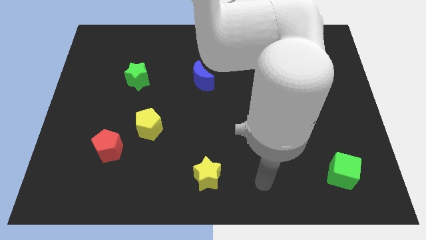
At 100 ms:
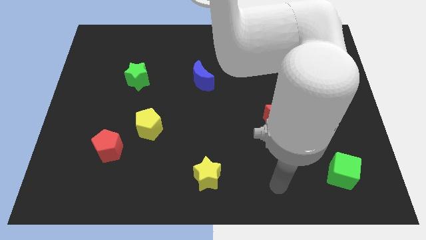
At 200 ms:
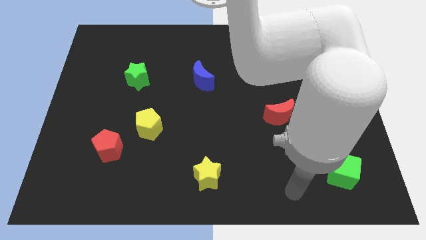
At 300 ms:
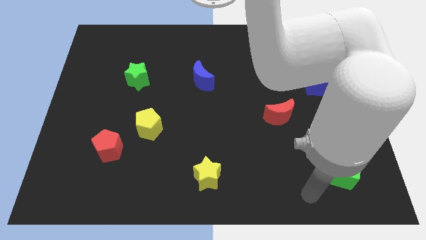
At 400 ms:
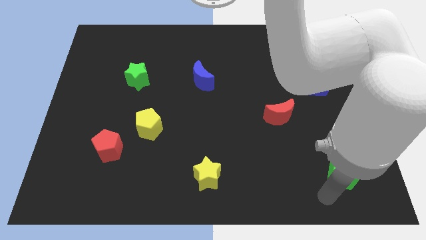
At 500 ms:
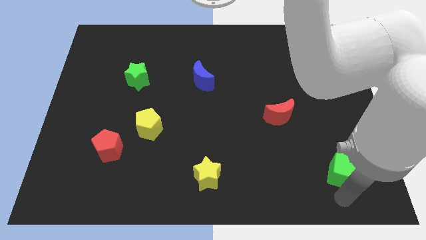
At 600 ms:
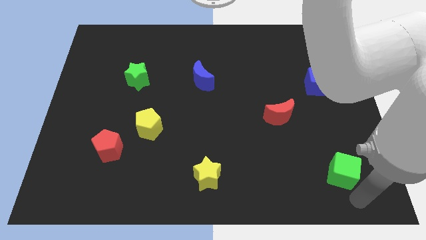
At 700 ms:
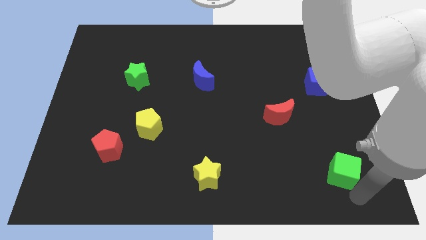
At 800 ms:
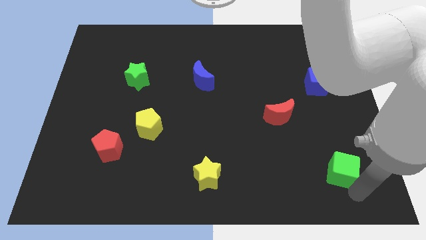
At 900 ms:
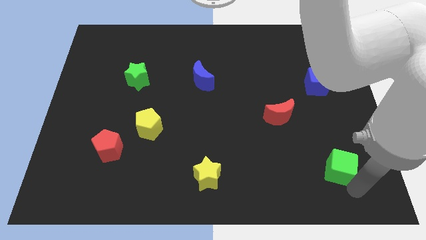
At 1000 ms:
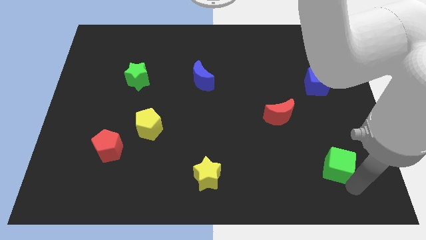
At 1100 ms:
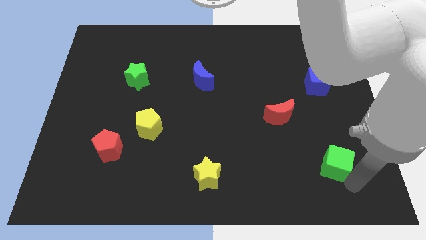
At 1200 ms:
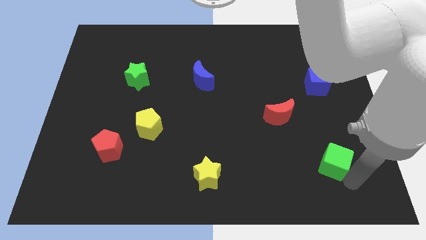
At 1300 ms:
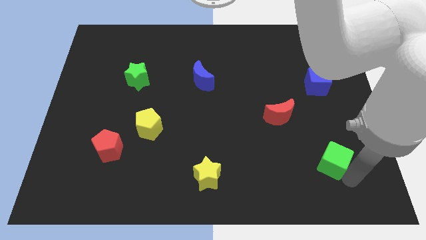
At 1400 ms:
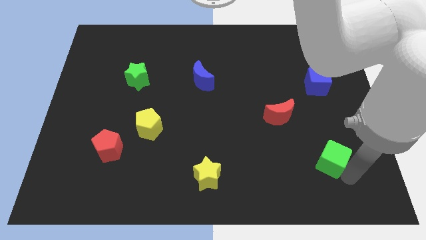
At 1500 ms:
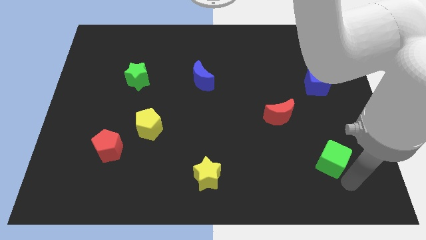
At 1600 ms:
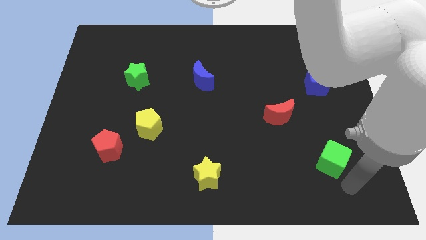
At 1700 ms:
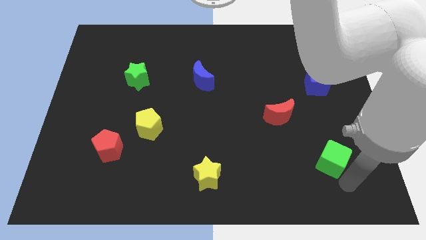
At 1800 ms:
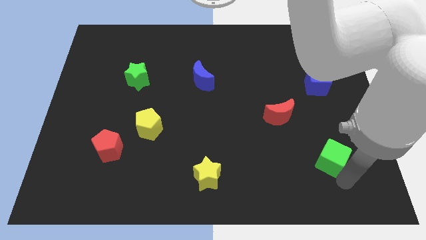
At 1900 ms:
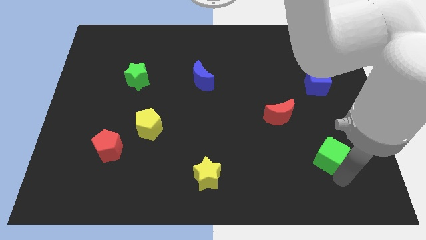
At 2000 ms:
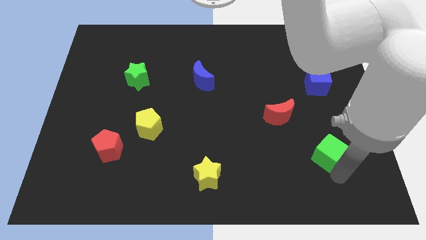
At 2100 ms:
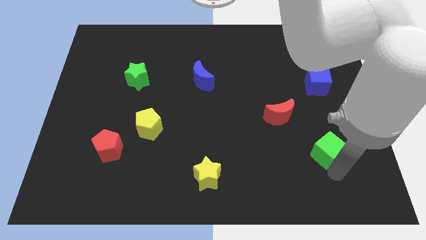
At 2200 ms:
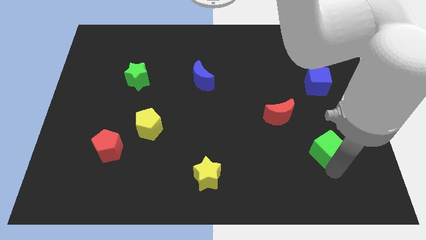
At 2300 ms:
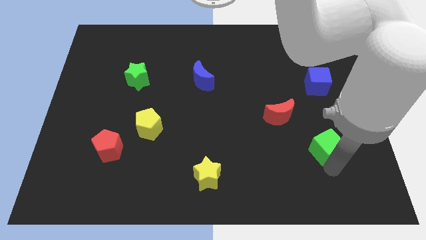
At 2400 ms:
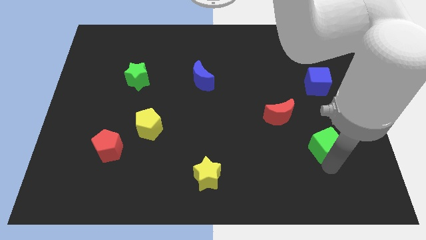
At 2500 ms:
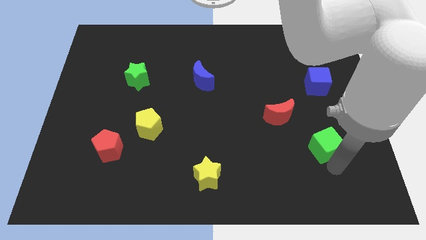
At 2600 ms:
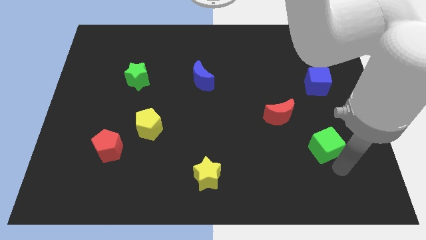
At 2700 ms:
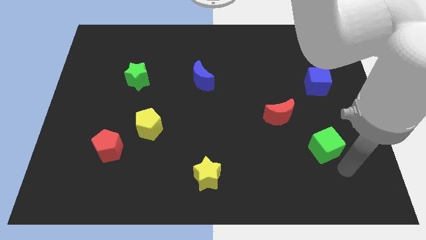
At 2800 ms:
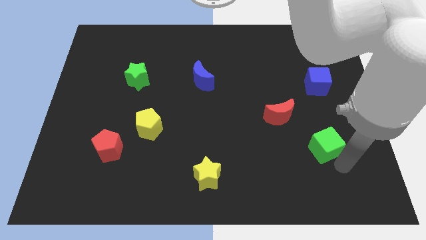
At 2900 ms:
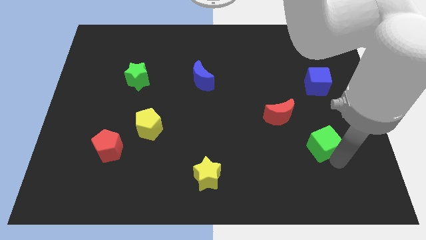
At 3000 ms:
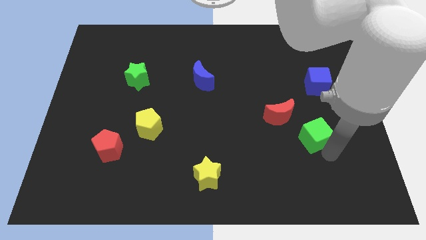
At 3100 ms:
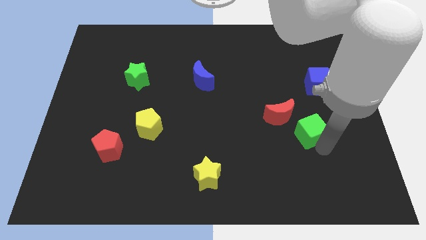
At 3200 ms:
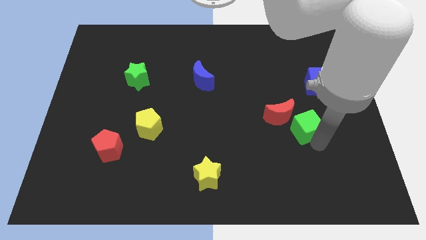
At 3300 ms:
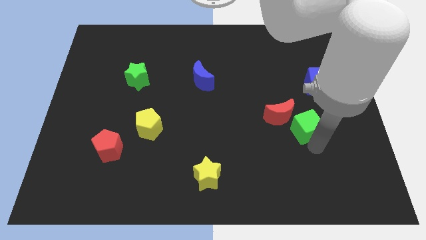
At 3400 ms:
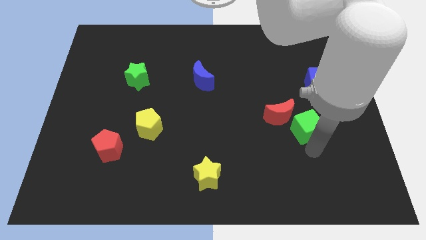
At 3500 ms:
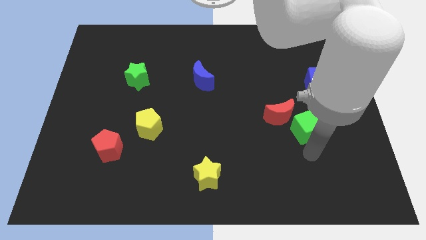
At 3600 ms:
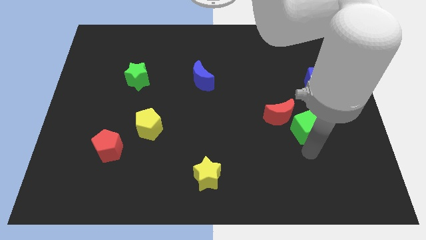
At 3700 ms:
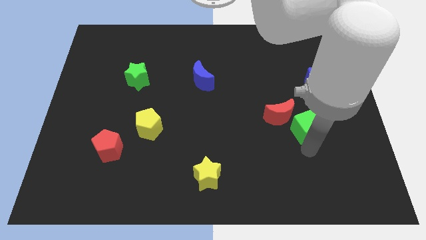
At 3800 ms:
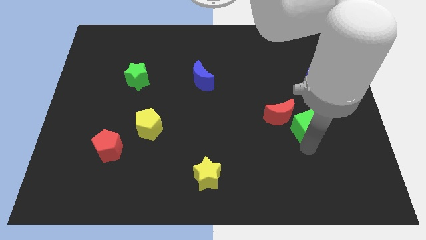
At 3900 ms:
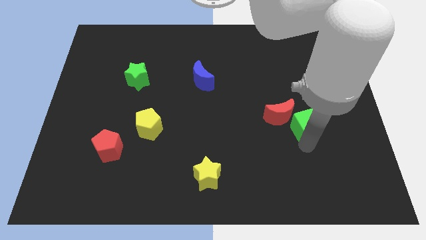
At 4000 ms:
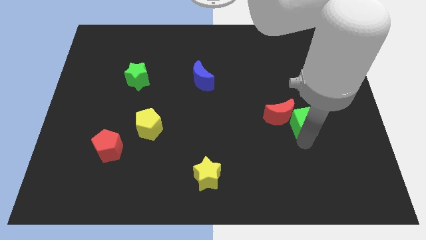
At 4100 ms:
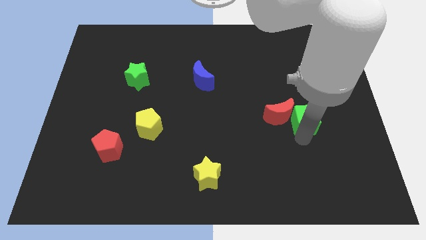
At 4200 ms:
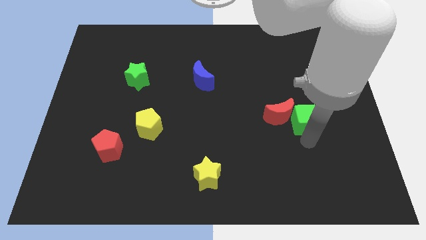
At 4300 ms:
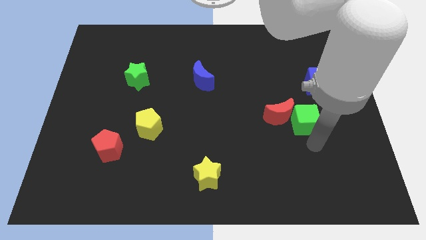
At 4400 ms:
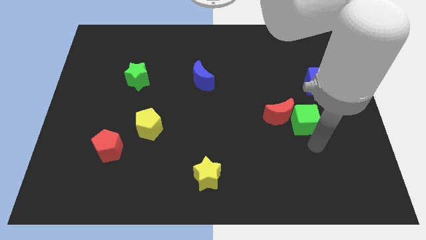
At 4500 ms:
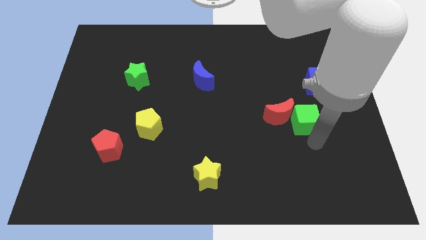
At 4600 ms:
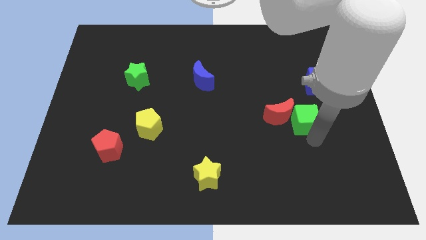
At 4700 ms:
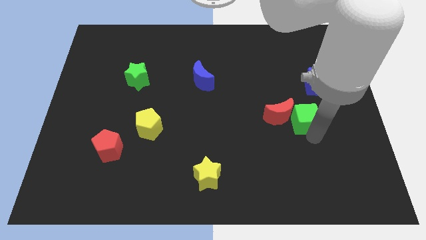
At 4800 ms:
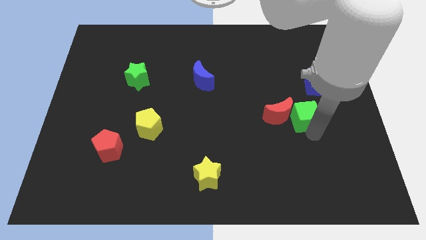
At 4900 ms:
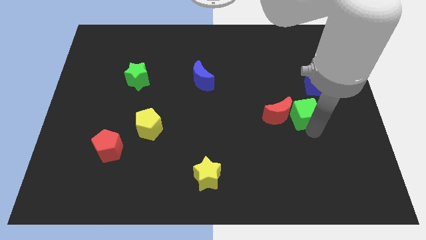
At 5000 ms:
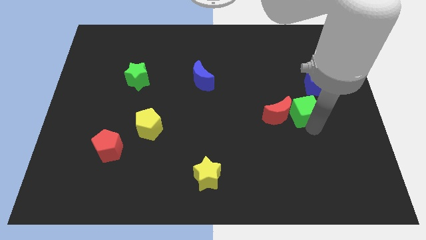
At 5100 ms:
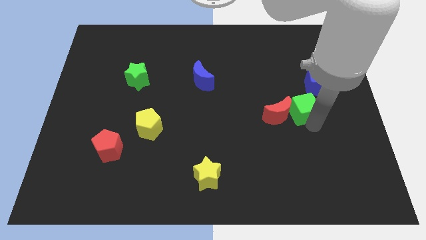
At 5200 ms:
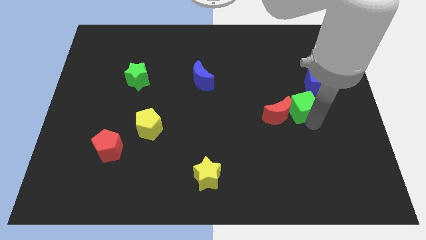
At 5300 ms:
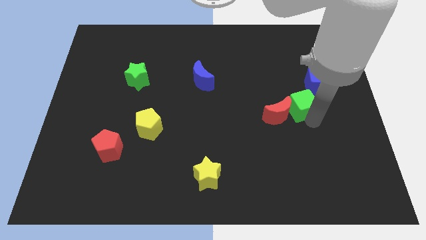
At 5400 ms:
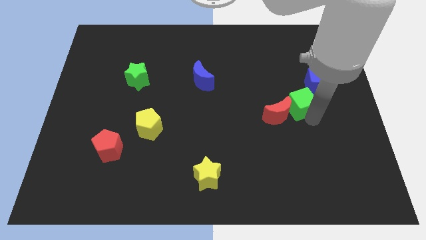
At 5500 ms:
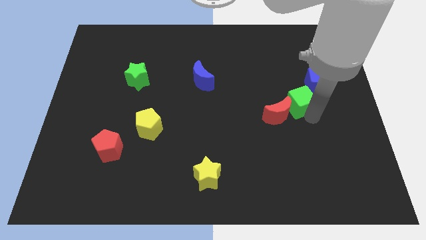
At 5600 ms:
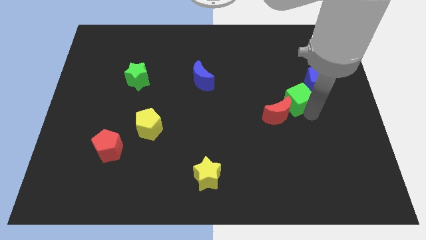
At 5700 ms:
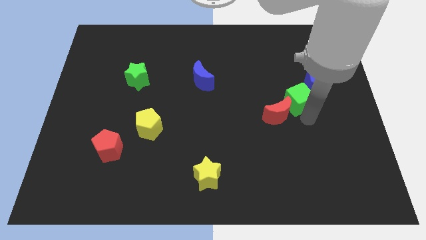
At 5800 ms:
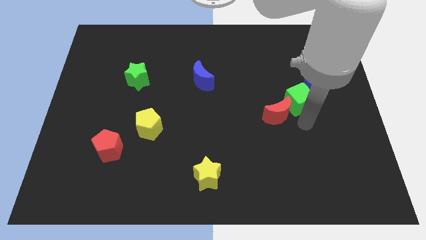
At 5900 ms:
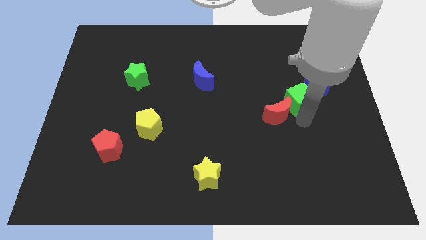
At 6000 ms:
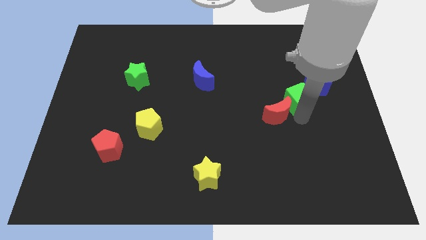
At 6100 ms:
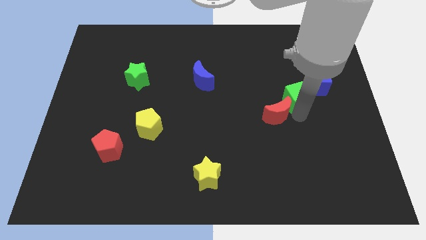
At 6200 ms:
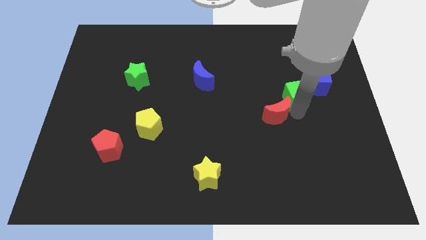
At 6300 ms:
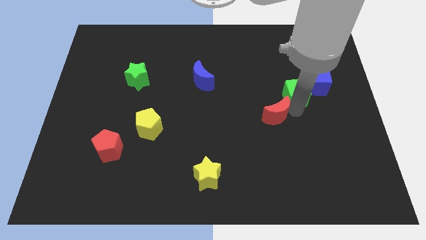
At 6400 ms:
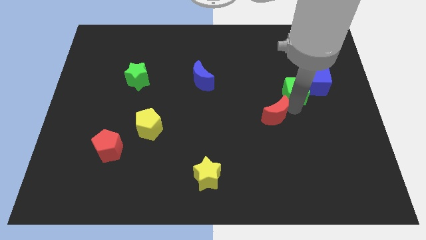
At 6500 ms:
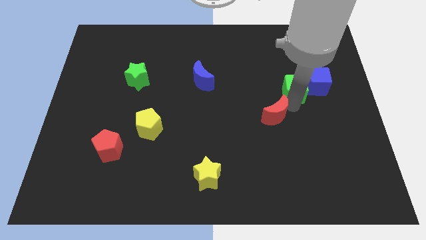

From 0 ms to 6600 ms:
push the green cube upwards

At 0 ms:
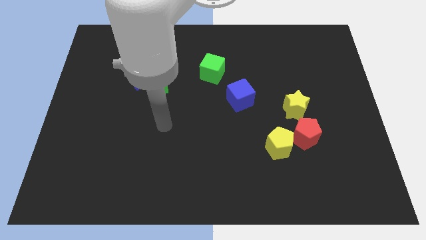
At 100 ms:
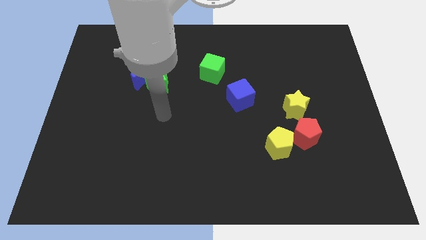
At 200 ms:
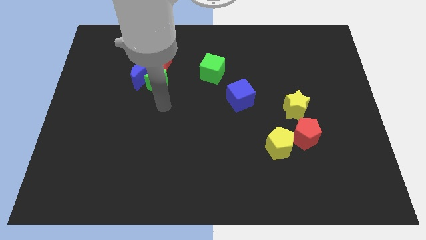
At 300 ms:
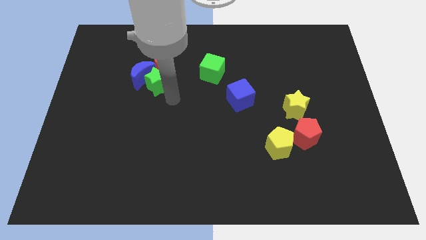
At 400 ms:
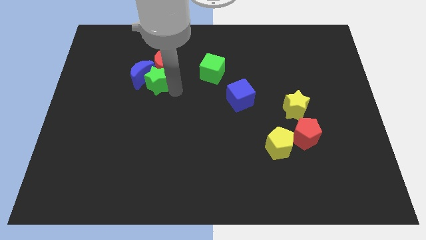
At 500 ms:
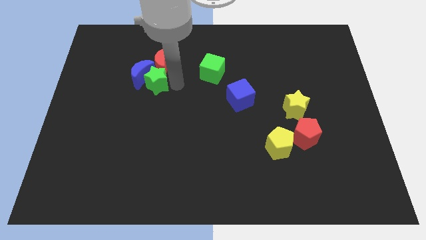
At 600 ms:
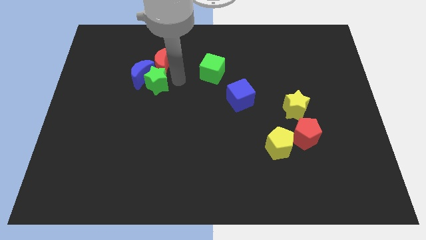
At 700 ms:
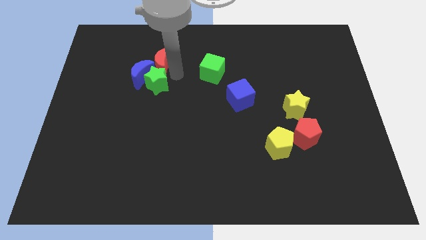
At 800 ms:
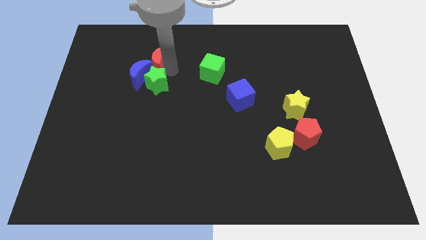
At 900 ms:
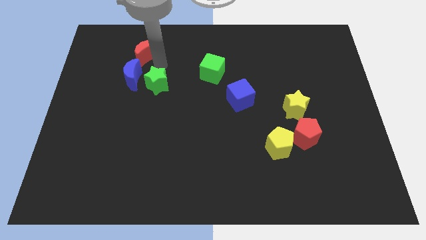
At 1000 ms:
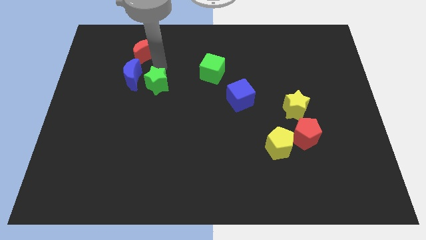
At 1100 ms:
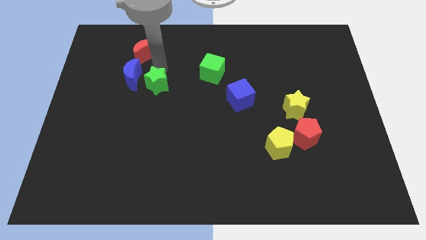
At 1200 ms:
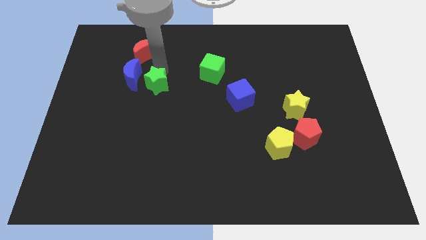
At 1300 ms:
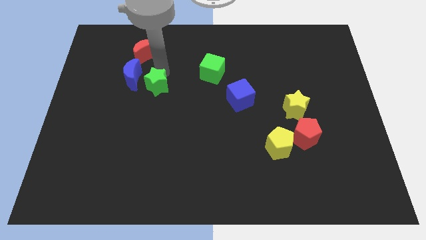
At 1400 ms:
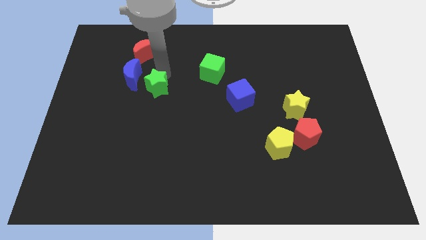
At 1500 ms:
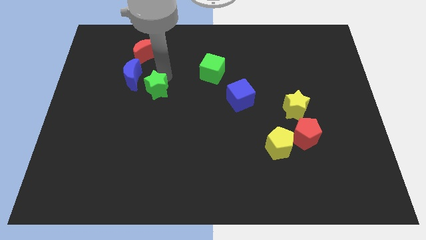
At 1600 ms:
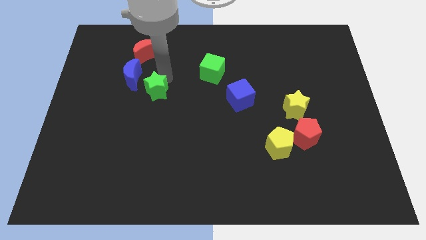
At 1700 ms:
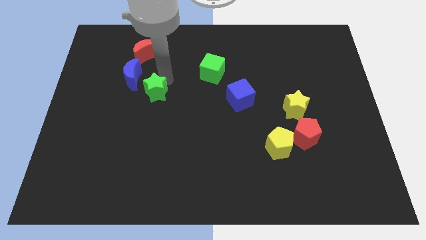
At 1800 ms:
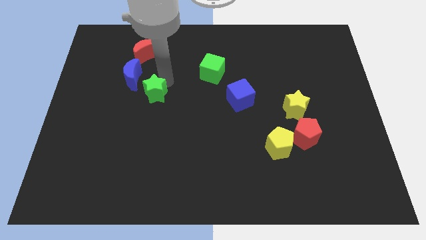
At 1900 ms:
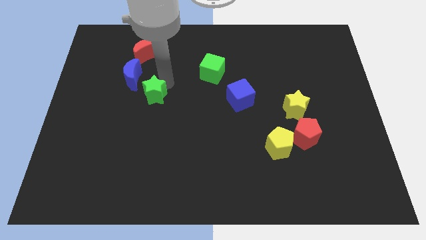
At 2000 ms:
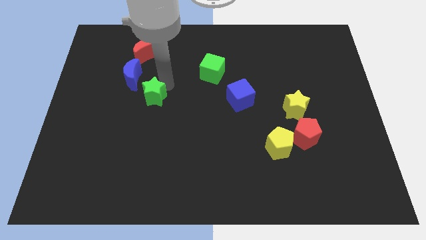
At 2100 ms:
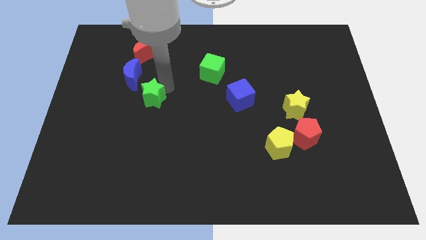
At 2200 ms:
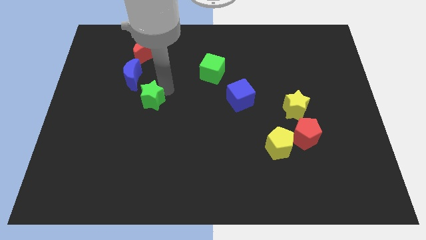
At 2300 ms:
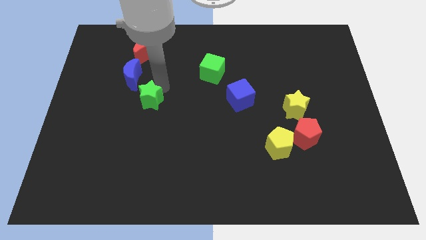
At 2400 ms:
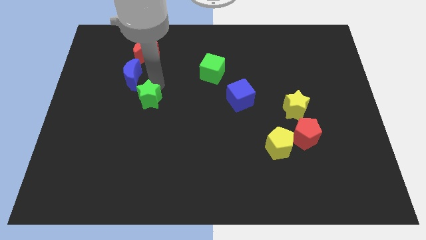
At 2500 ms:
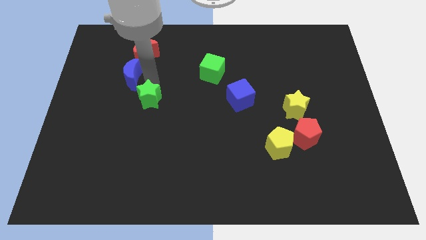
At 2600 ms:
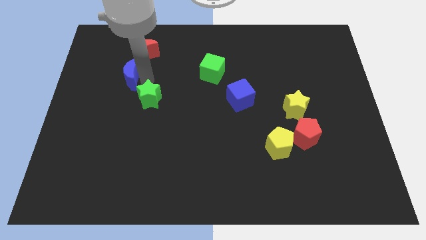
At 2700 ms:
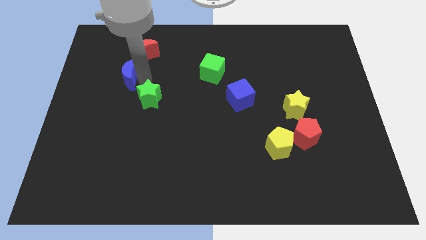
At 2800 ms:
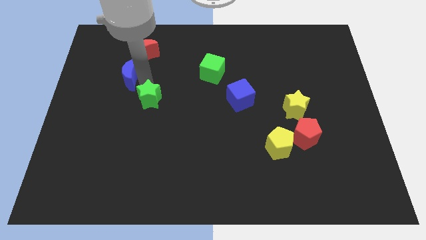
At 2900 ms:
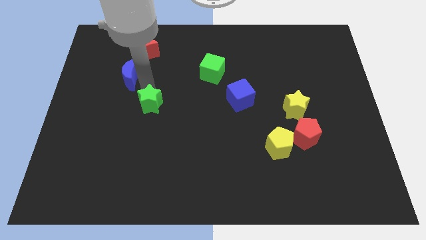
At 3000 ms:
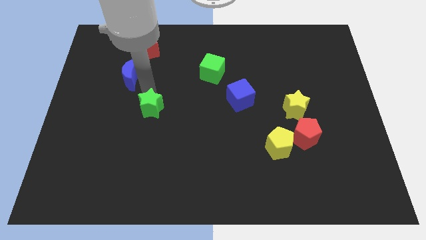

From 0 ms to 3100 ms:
slightly move the green star downwards
